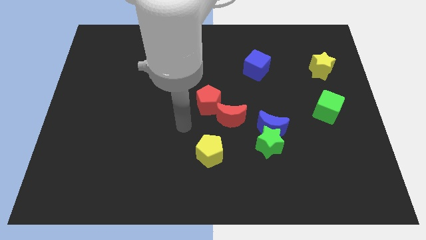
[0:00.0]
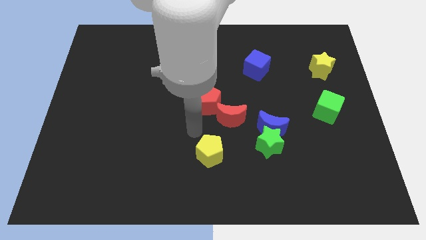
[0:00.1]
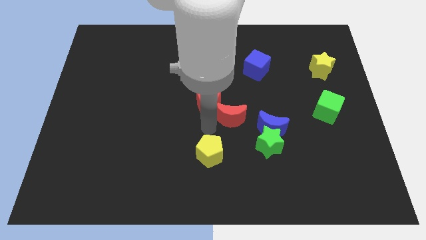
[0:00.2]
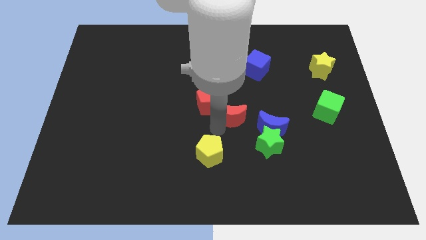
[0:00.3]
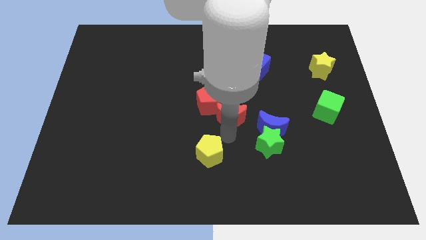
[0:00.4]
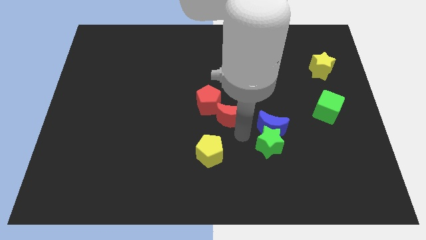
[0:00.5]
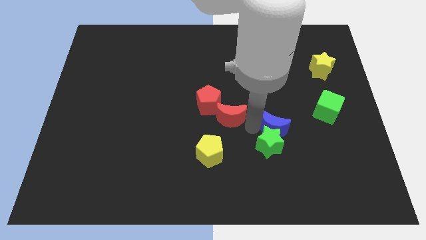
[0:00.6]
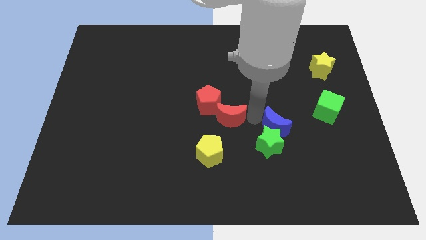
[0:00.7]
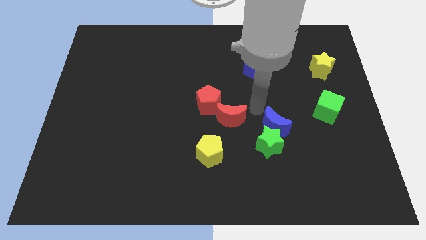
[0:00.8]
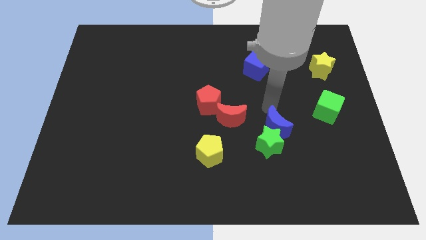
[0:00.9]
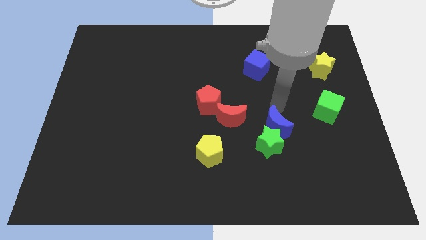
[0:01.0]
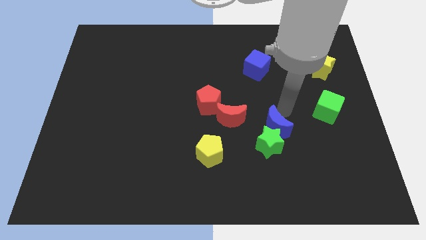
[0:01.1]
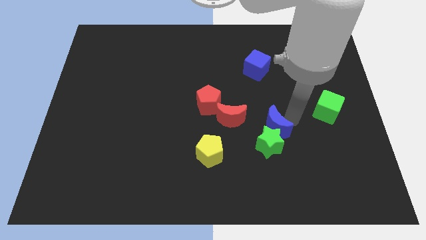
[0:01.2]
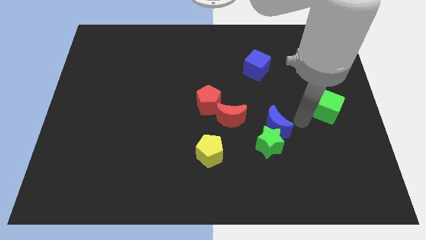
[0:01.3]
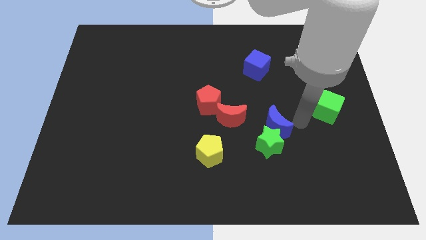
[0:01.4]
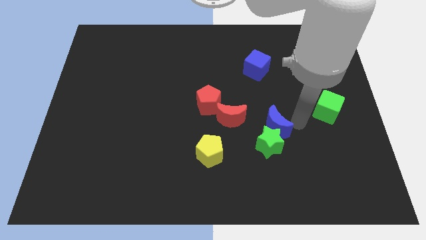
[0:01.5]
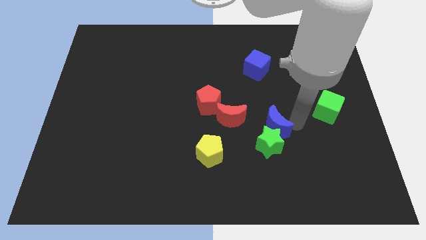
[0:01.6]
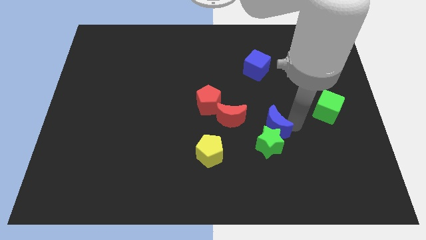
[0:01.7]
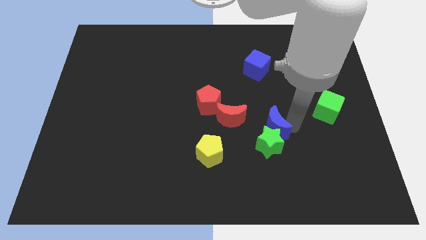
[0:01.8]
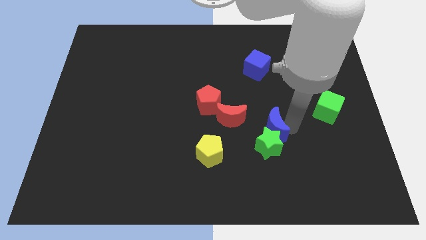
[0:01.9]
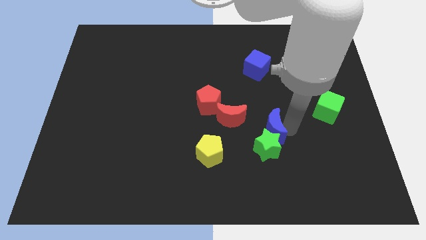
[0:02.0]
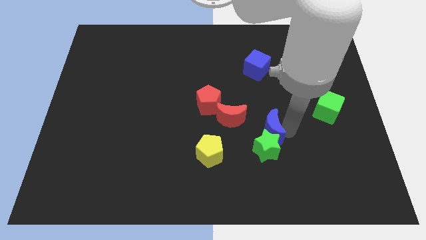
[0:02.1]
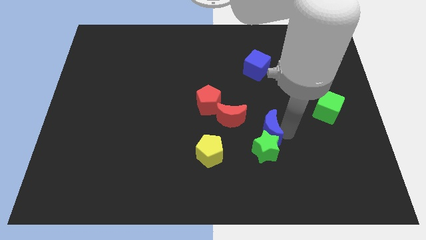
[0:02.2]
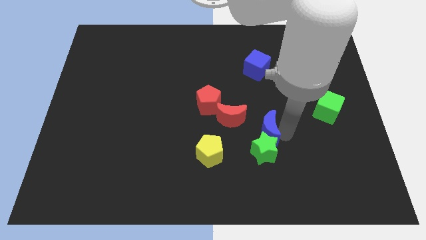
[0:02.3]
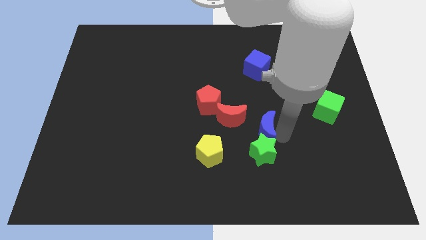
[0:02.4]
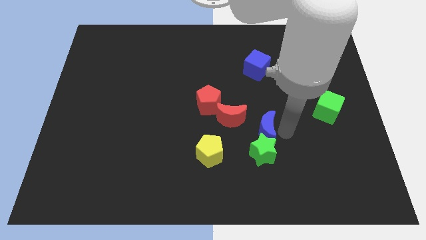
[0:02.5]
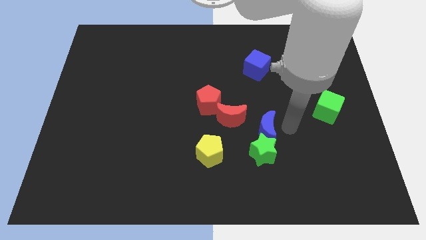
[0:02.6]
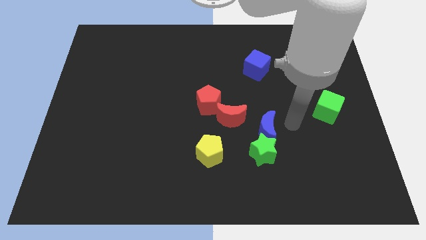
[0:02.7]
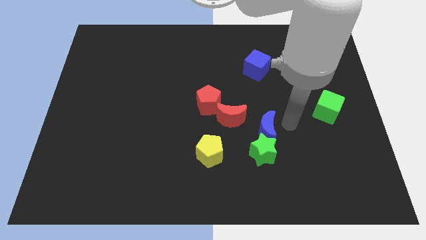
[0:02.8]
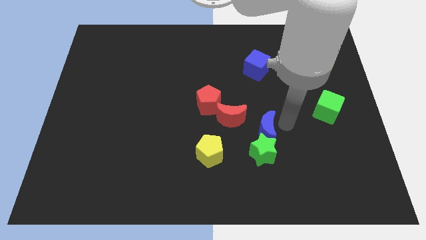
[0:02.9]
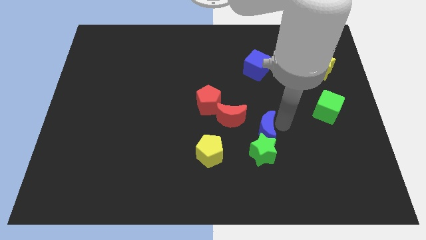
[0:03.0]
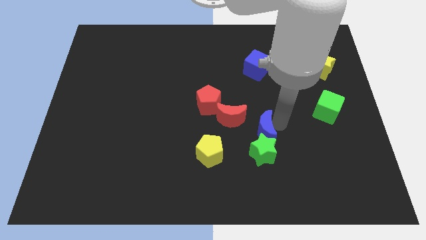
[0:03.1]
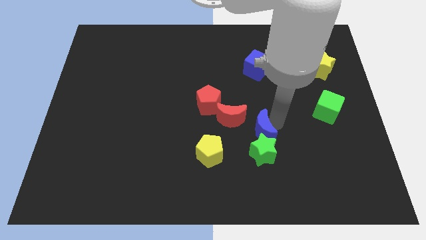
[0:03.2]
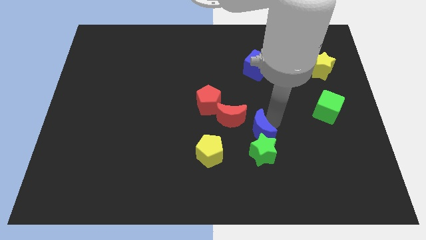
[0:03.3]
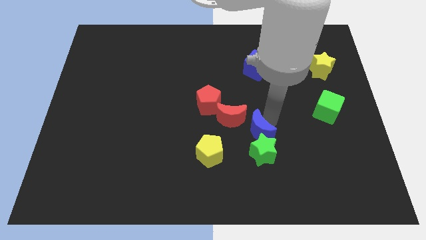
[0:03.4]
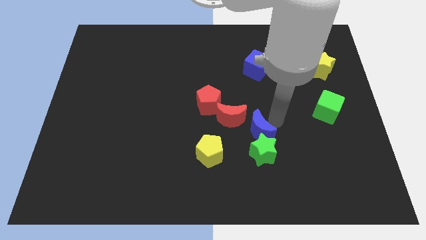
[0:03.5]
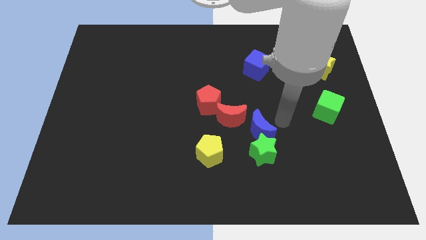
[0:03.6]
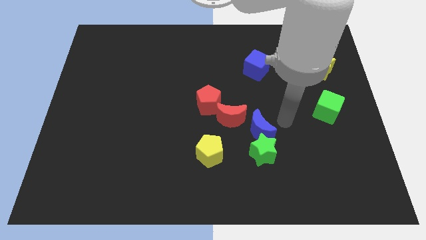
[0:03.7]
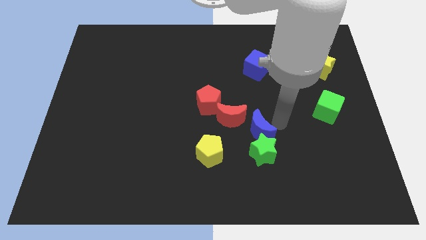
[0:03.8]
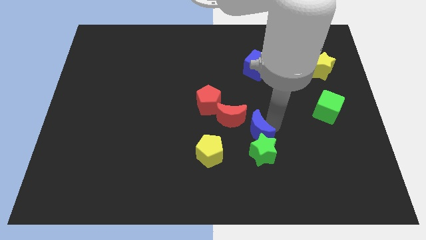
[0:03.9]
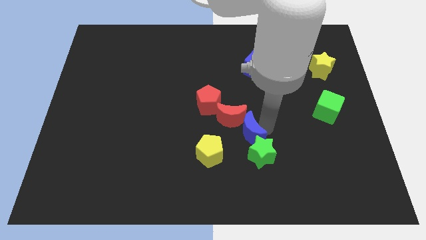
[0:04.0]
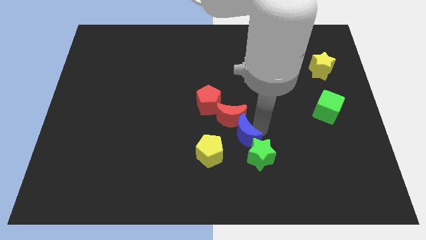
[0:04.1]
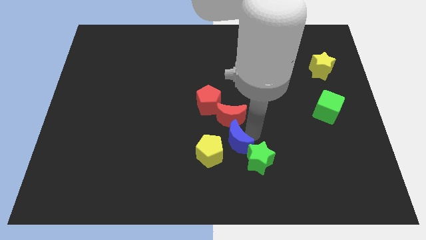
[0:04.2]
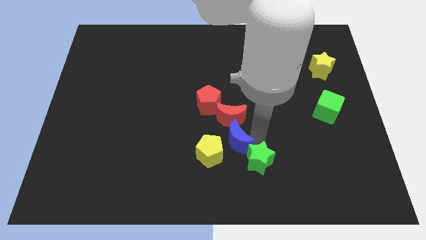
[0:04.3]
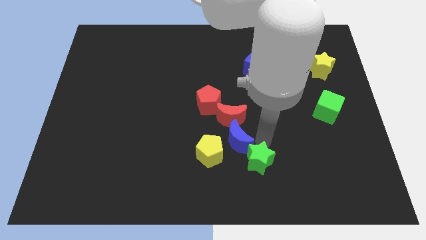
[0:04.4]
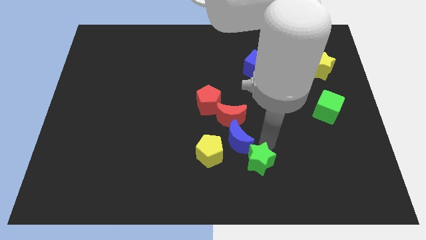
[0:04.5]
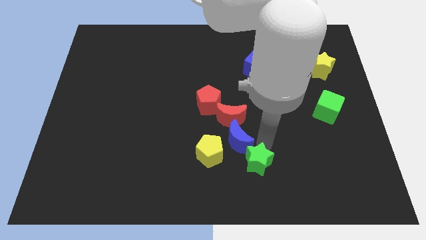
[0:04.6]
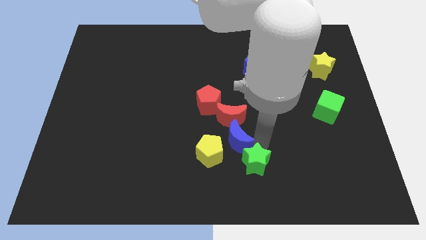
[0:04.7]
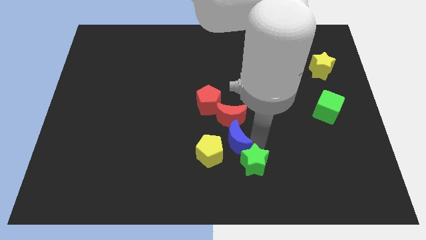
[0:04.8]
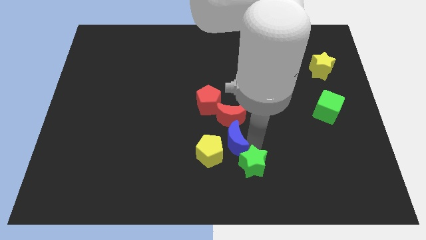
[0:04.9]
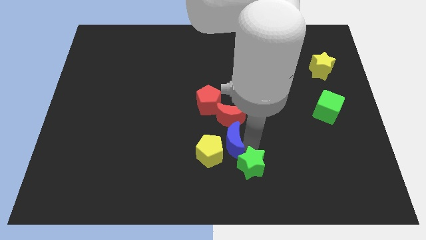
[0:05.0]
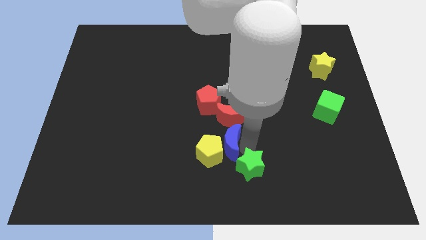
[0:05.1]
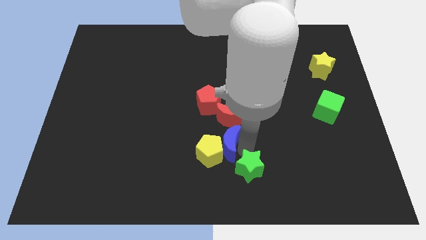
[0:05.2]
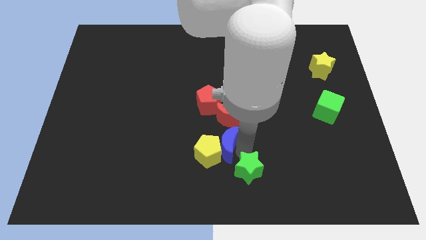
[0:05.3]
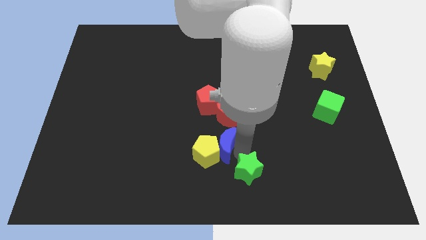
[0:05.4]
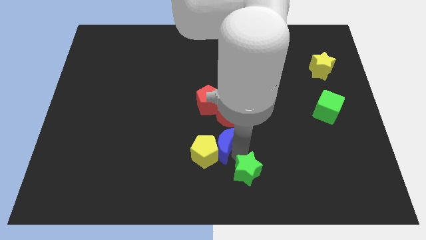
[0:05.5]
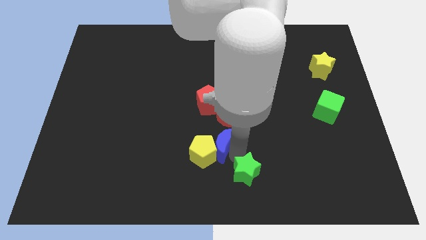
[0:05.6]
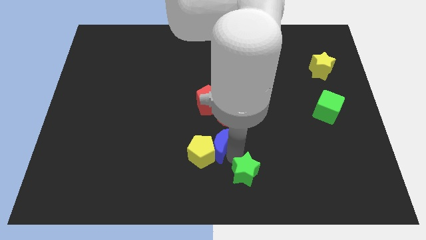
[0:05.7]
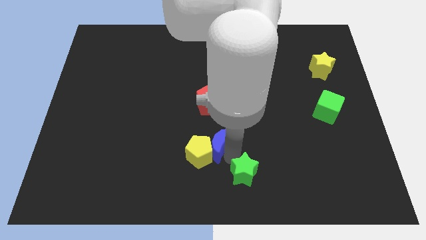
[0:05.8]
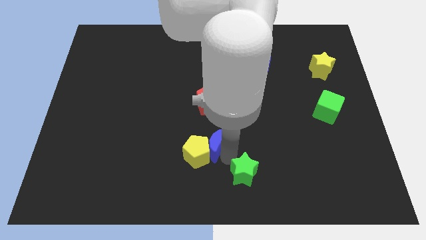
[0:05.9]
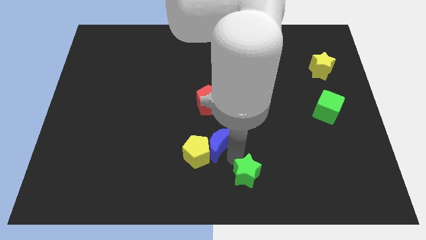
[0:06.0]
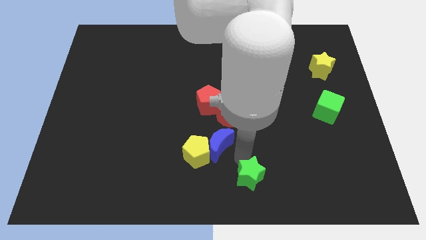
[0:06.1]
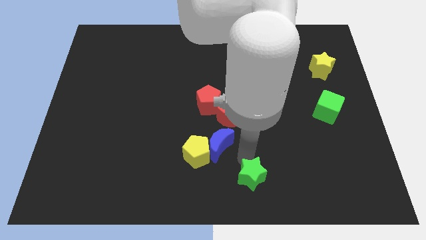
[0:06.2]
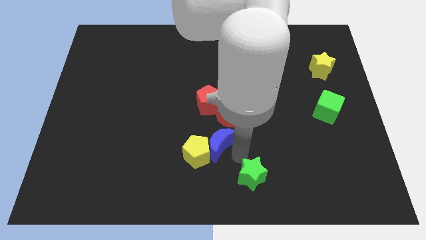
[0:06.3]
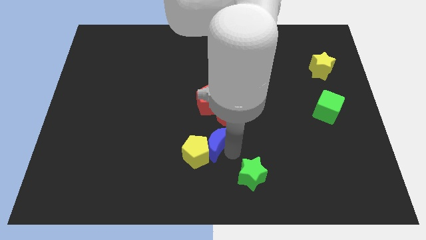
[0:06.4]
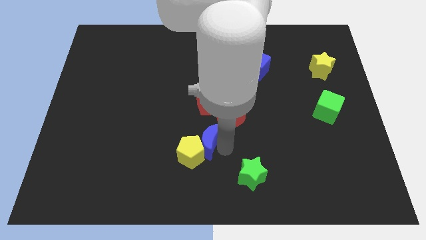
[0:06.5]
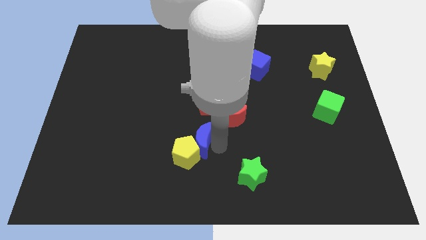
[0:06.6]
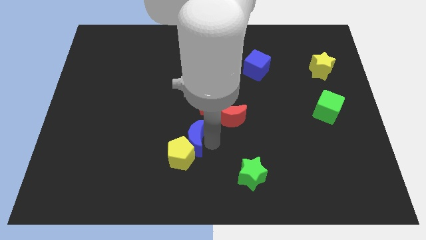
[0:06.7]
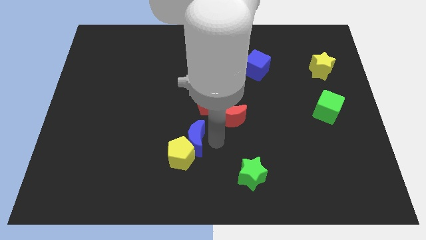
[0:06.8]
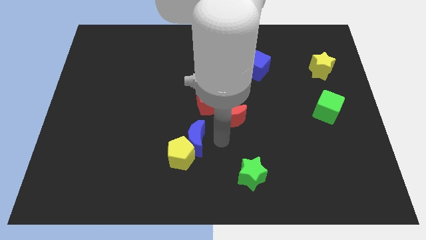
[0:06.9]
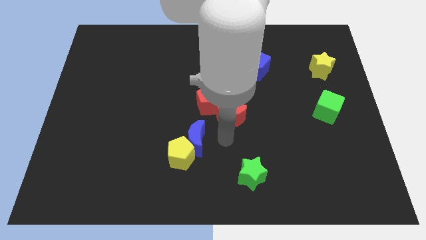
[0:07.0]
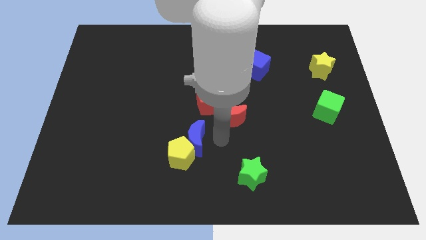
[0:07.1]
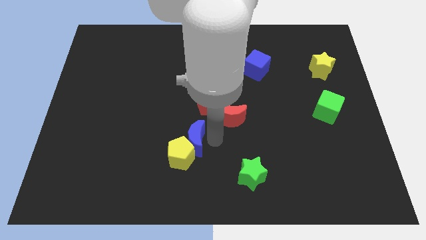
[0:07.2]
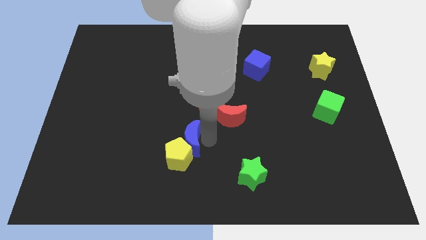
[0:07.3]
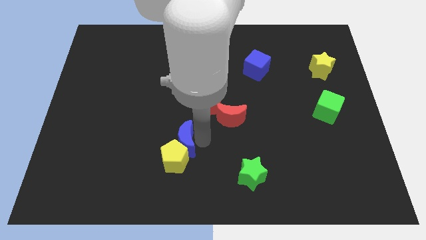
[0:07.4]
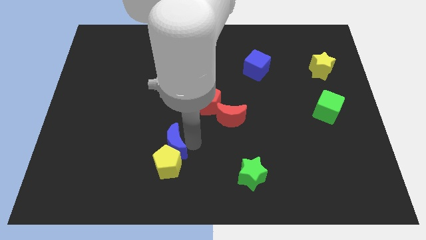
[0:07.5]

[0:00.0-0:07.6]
push the blue moon to the left

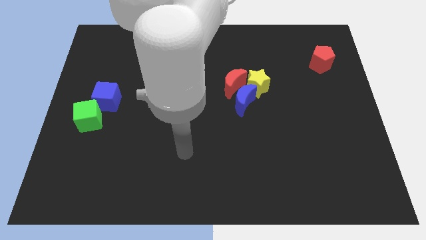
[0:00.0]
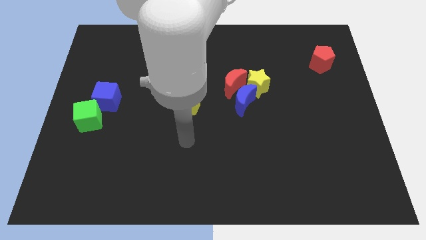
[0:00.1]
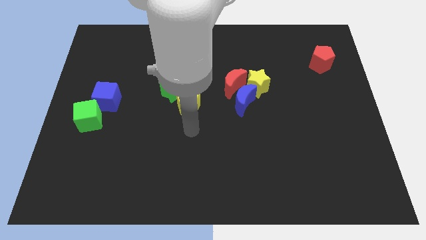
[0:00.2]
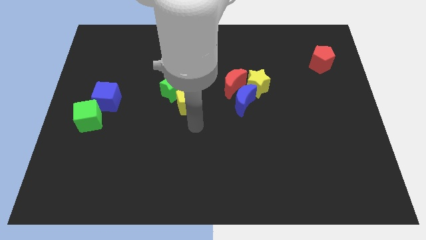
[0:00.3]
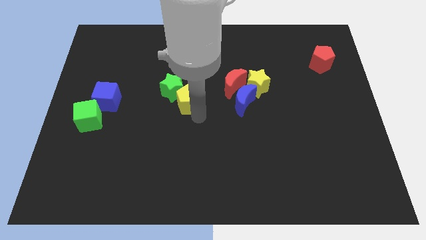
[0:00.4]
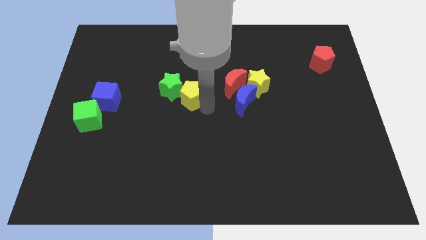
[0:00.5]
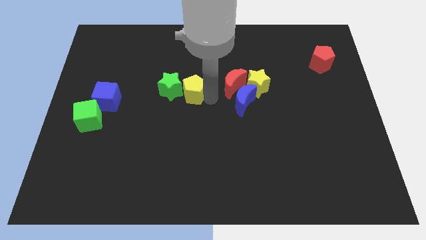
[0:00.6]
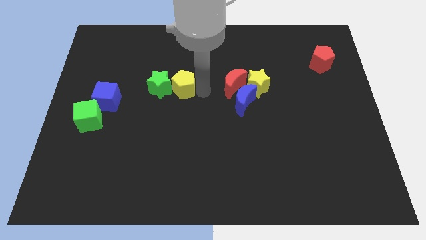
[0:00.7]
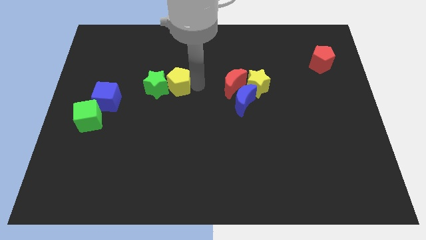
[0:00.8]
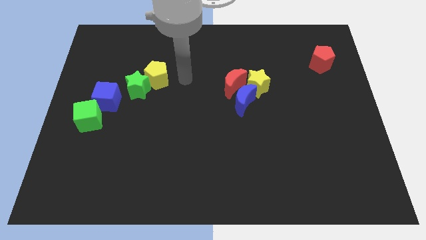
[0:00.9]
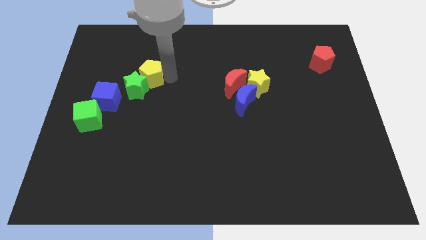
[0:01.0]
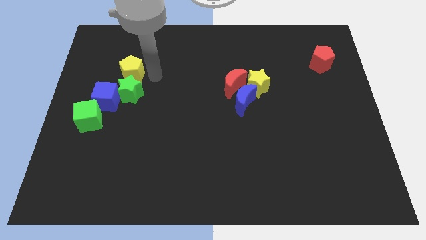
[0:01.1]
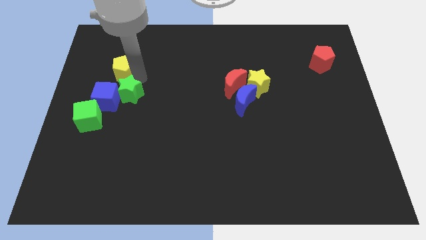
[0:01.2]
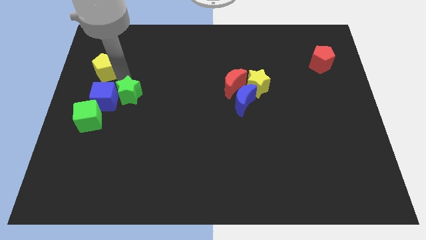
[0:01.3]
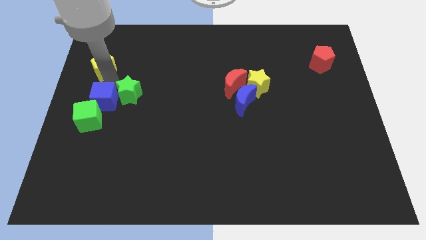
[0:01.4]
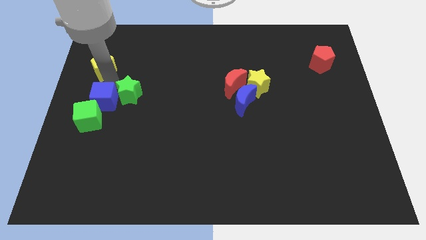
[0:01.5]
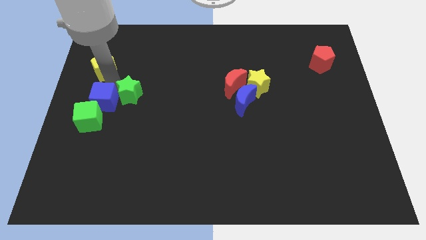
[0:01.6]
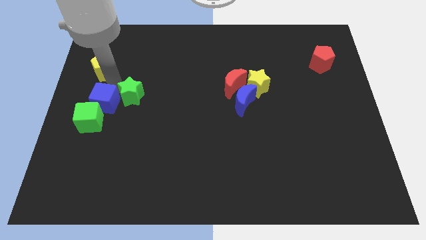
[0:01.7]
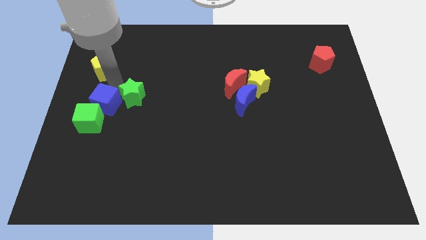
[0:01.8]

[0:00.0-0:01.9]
push the green star a bit down and then left
